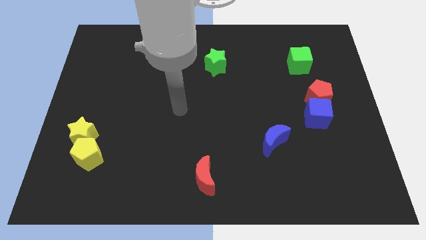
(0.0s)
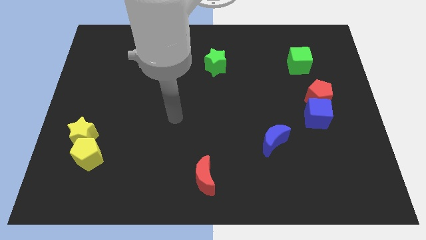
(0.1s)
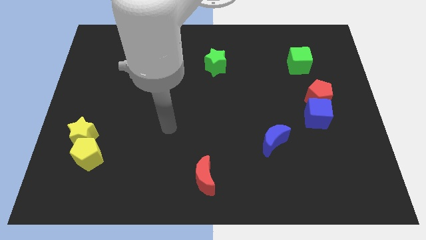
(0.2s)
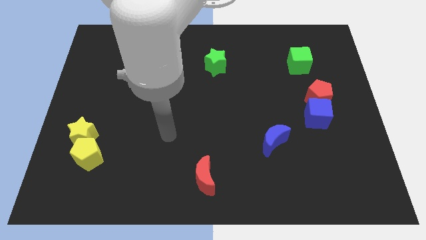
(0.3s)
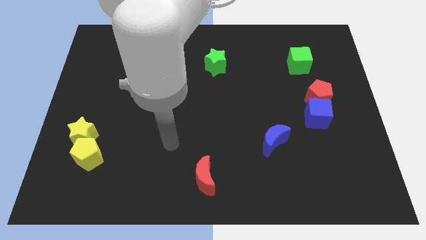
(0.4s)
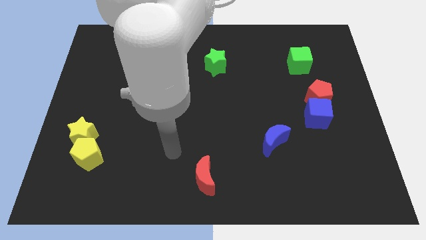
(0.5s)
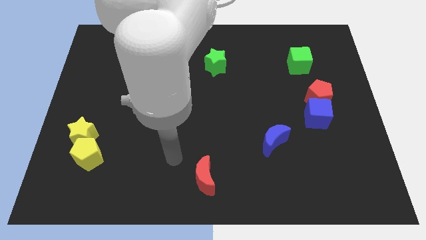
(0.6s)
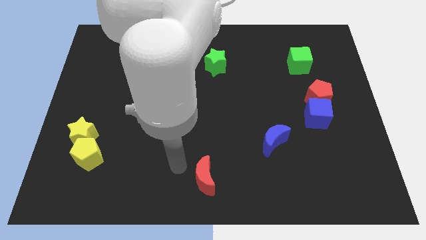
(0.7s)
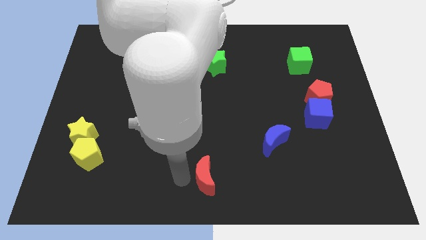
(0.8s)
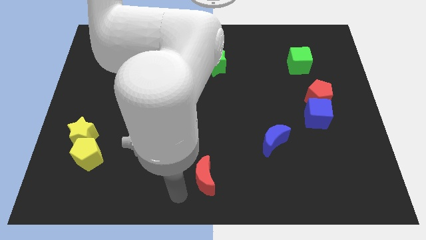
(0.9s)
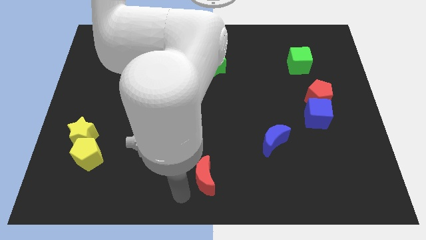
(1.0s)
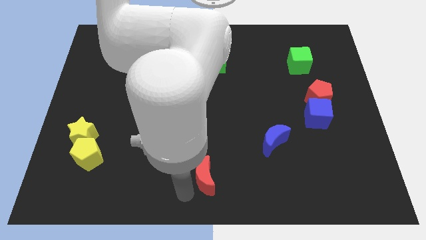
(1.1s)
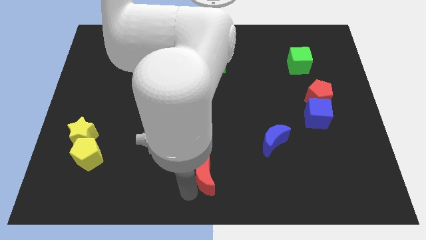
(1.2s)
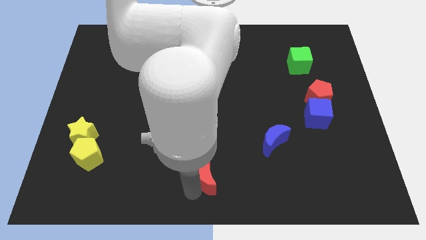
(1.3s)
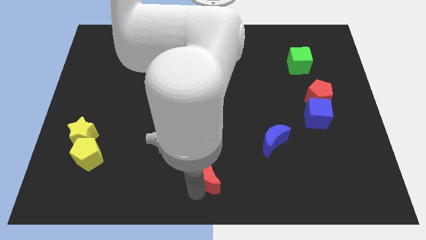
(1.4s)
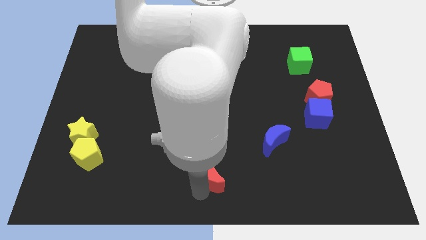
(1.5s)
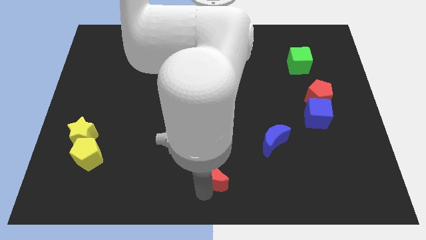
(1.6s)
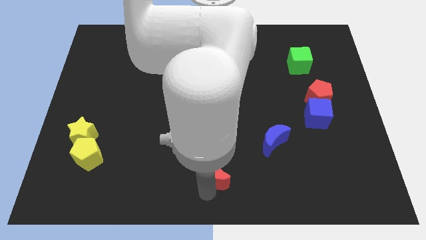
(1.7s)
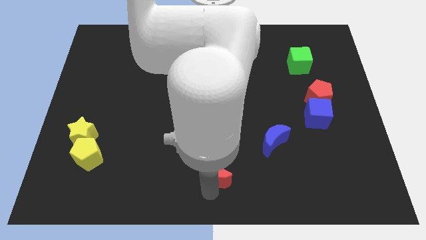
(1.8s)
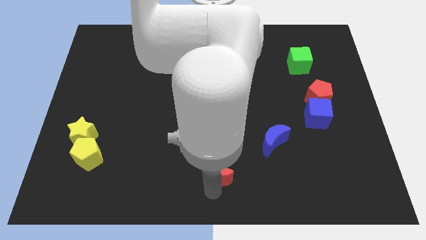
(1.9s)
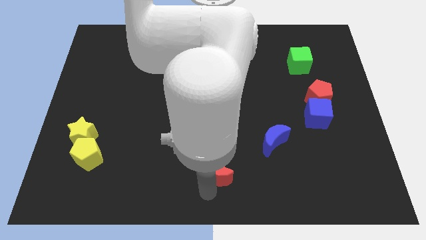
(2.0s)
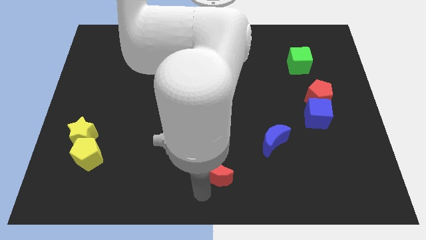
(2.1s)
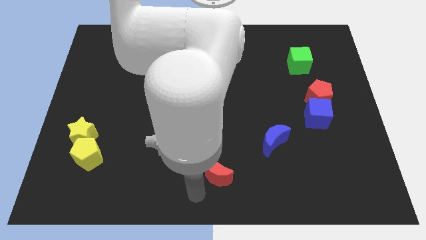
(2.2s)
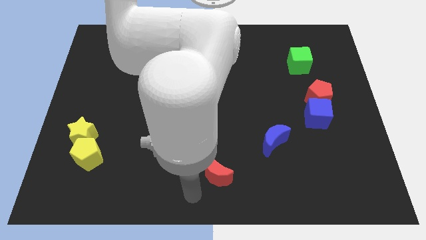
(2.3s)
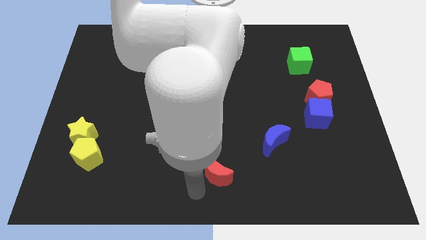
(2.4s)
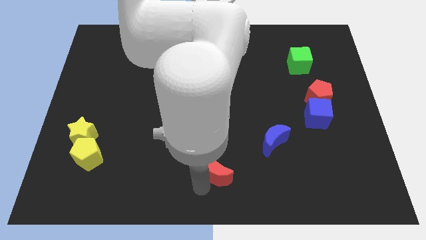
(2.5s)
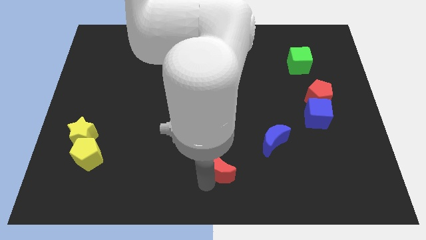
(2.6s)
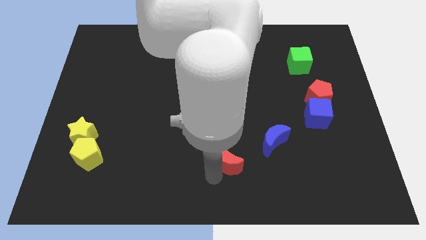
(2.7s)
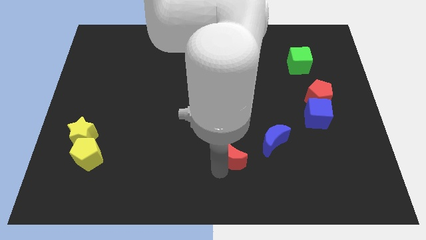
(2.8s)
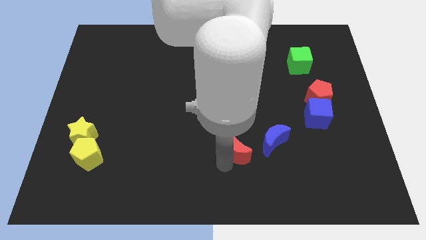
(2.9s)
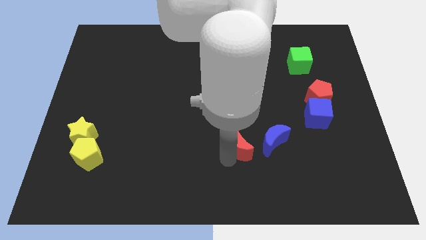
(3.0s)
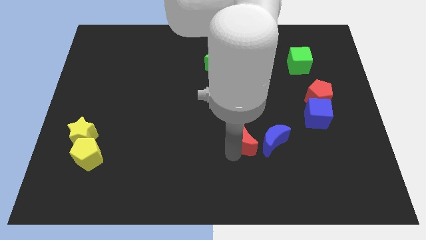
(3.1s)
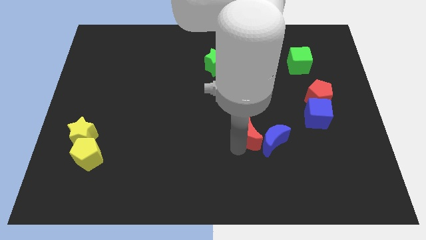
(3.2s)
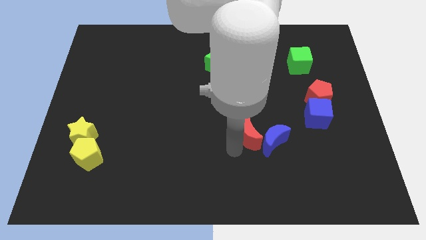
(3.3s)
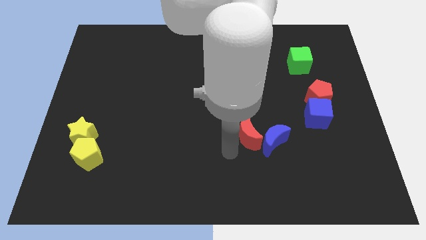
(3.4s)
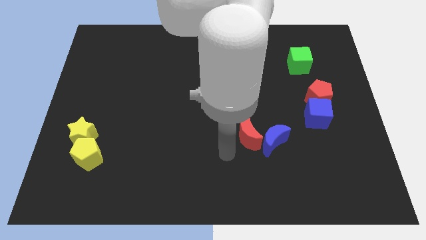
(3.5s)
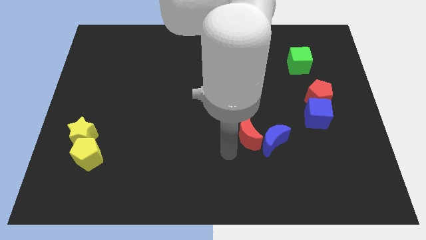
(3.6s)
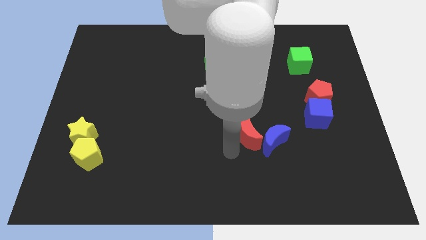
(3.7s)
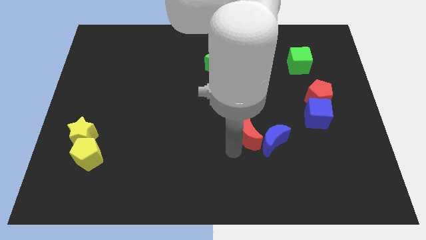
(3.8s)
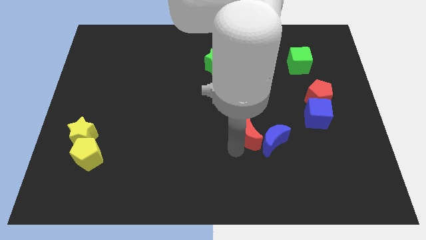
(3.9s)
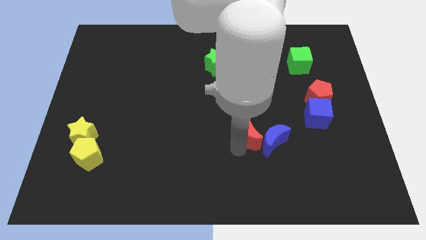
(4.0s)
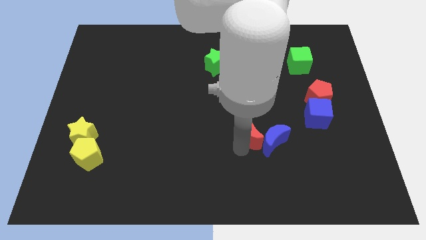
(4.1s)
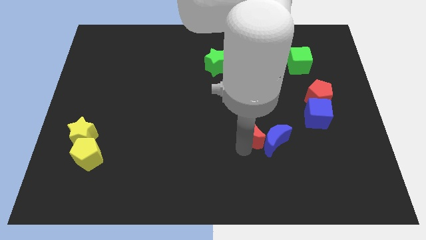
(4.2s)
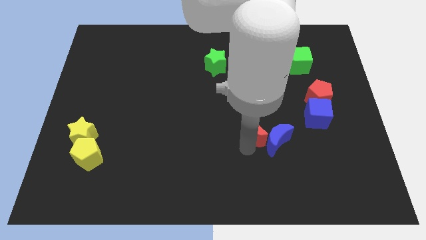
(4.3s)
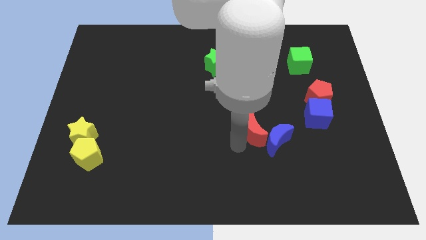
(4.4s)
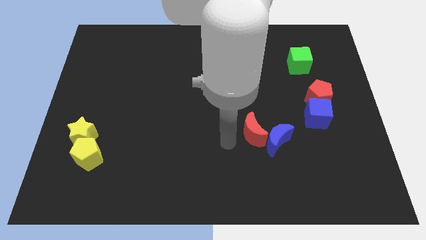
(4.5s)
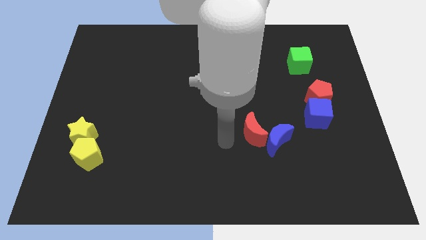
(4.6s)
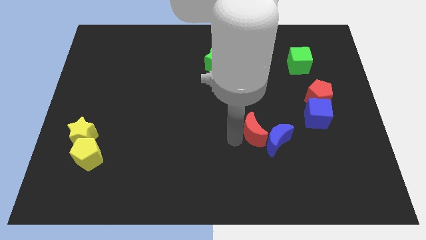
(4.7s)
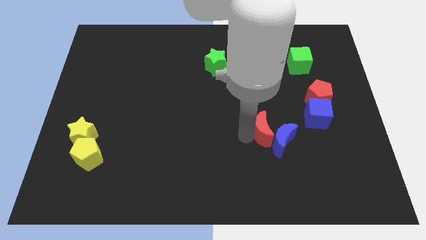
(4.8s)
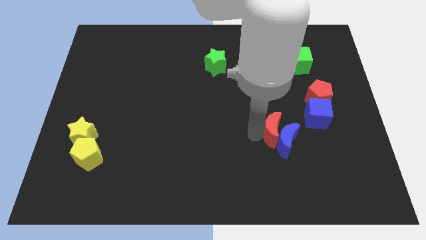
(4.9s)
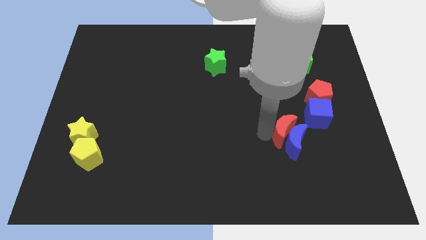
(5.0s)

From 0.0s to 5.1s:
push the red moon to the top right of the blue moon

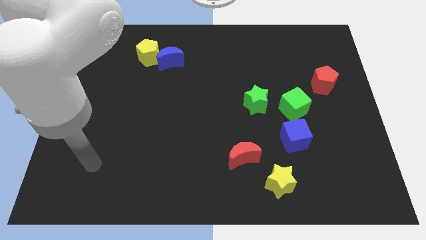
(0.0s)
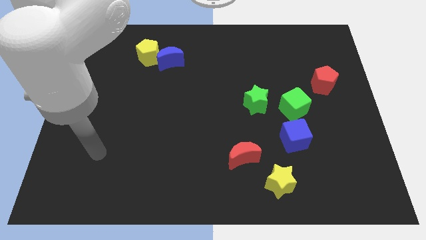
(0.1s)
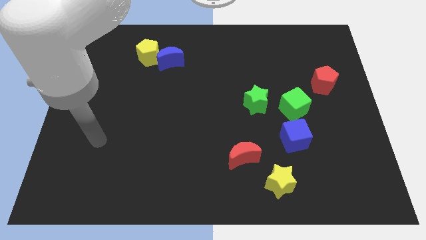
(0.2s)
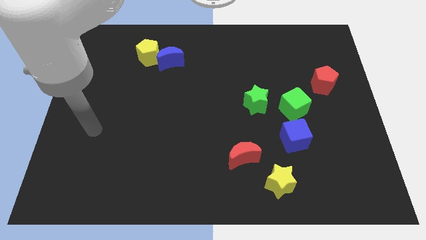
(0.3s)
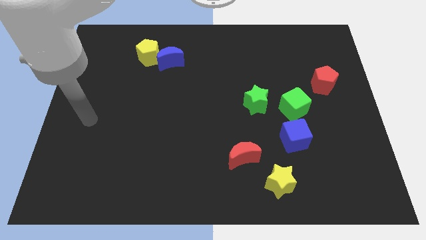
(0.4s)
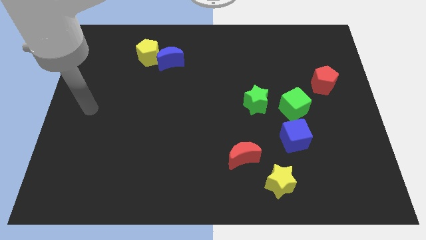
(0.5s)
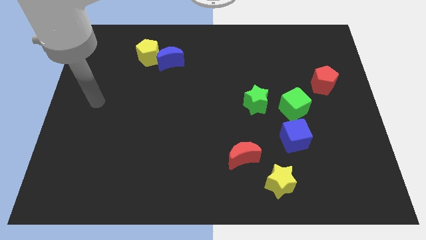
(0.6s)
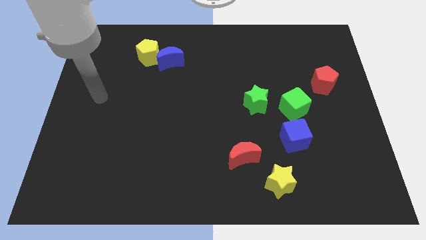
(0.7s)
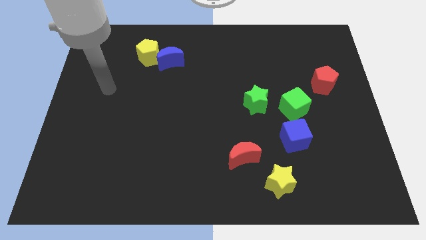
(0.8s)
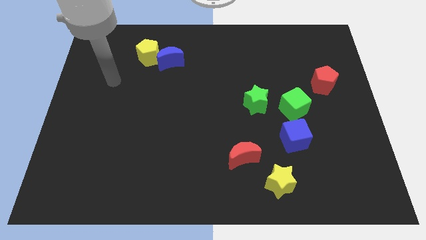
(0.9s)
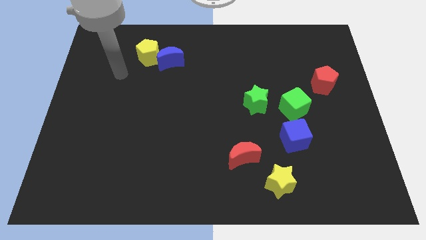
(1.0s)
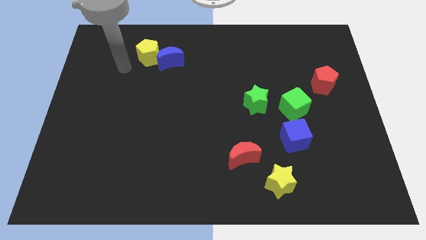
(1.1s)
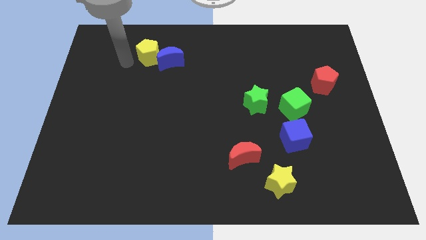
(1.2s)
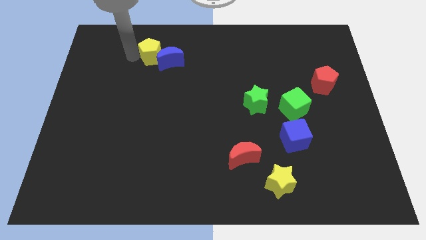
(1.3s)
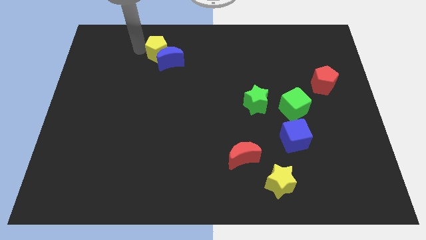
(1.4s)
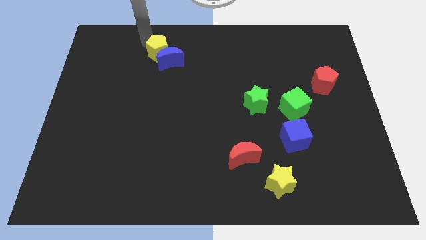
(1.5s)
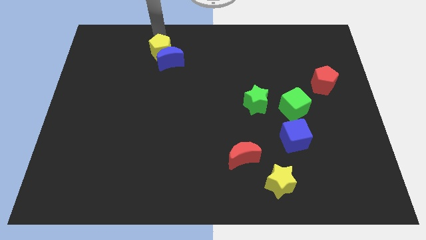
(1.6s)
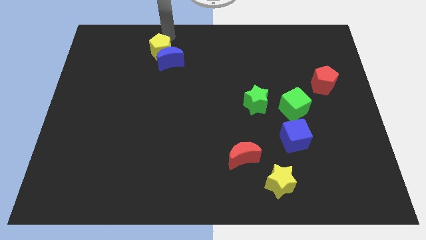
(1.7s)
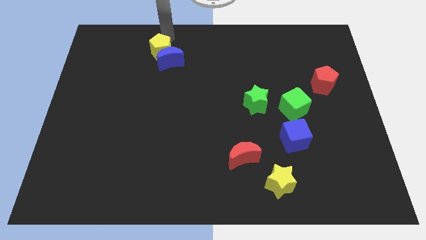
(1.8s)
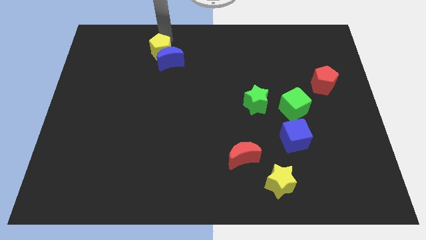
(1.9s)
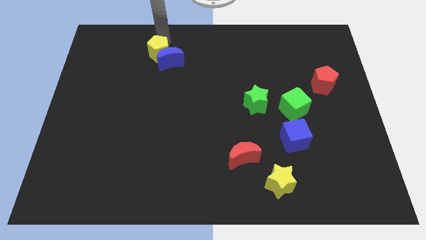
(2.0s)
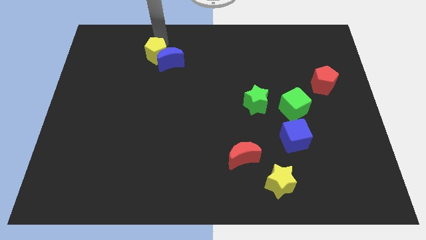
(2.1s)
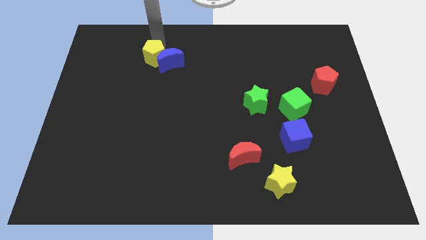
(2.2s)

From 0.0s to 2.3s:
put the yellow pentagon to the bottom left side of the blue moon

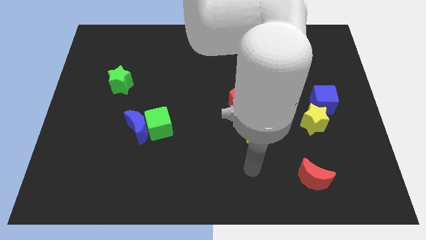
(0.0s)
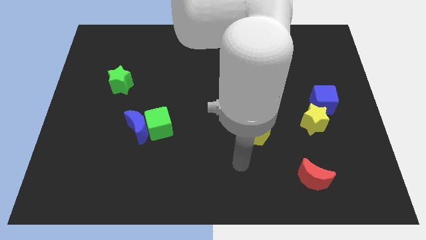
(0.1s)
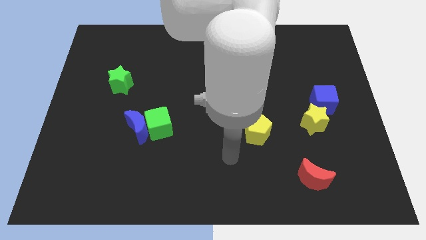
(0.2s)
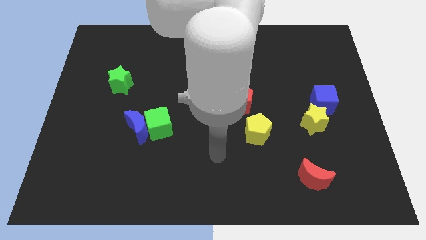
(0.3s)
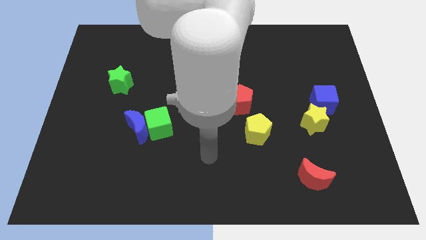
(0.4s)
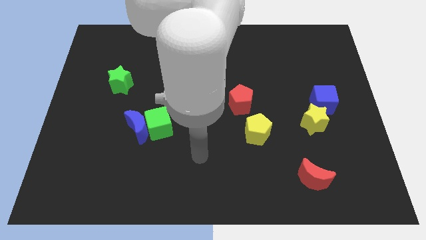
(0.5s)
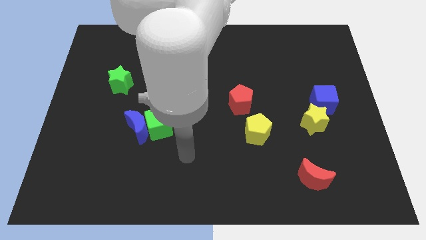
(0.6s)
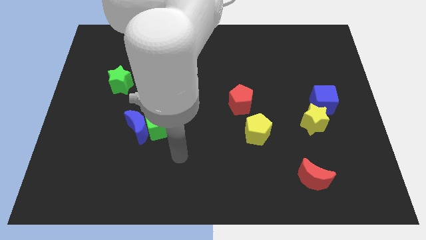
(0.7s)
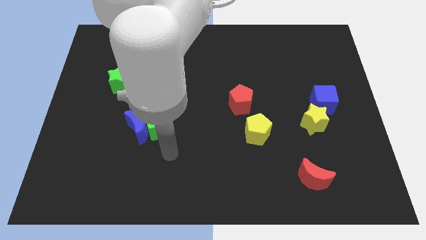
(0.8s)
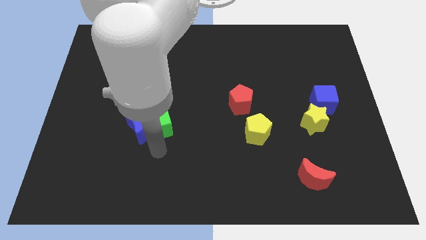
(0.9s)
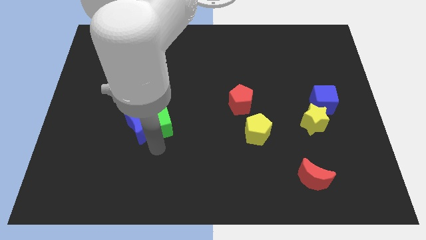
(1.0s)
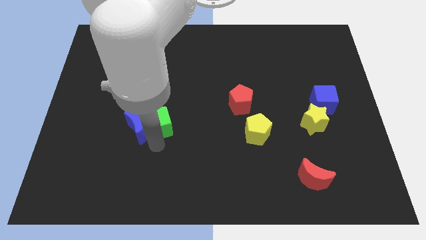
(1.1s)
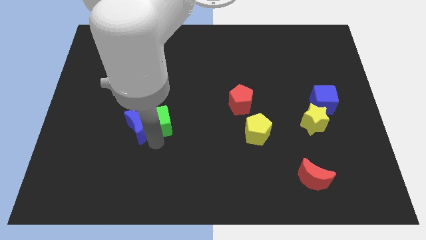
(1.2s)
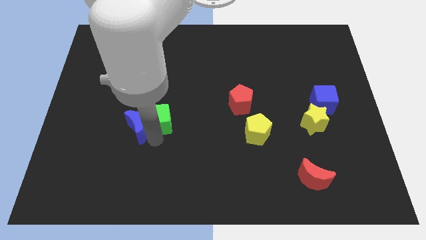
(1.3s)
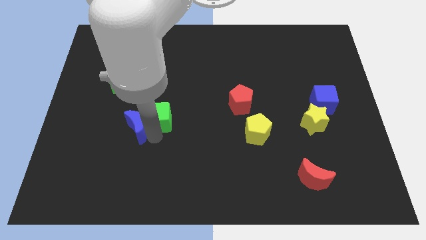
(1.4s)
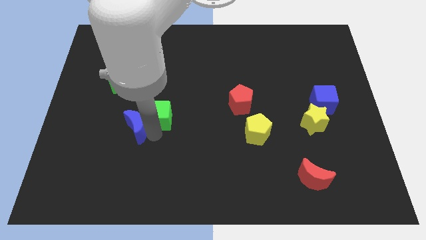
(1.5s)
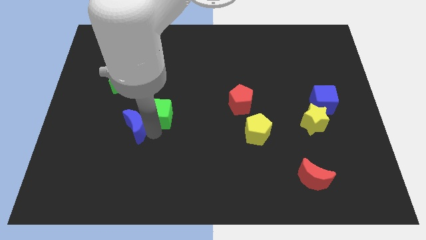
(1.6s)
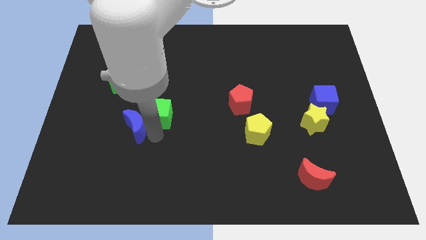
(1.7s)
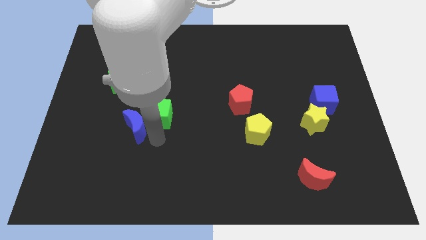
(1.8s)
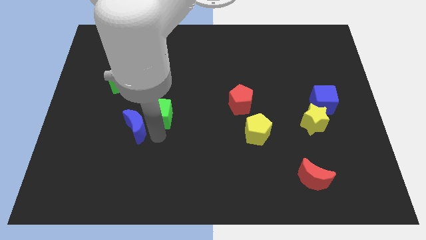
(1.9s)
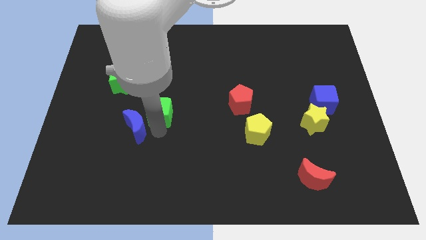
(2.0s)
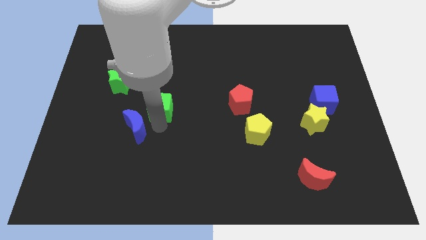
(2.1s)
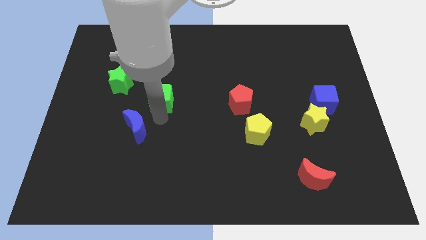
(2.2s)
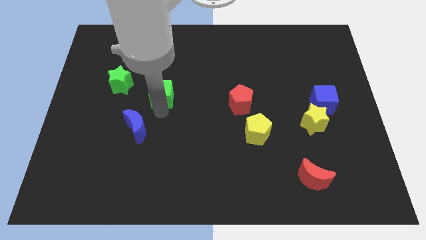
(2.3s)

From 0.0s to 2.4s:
move the green cube to the right of the green star
